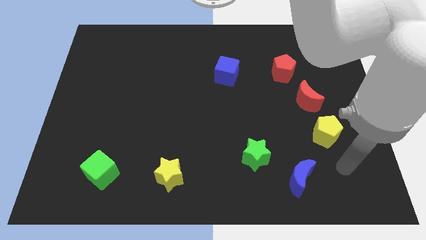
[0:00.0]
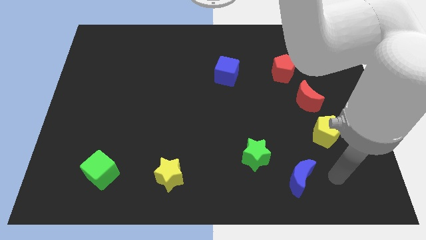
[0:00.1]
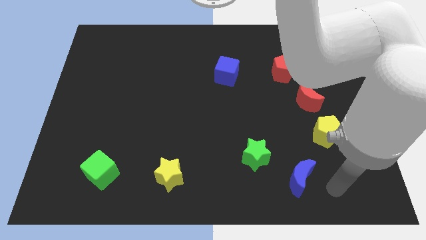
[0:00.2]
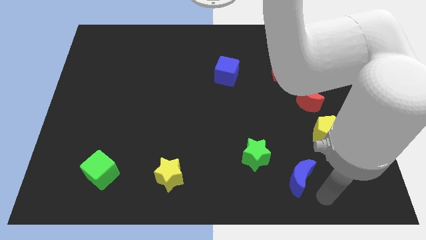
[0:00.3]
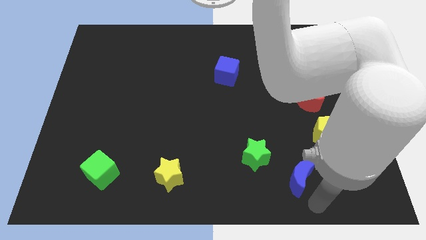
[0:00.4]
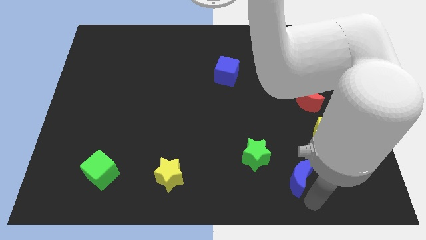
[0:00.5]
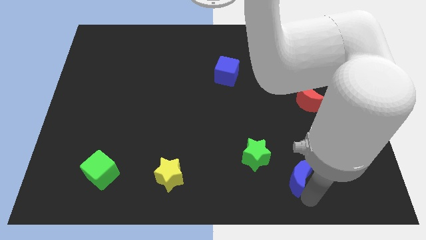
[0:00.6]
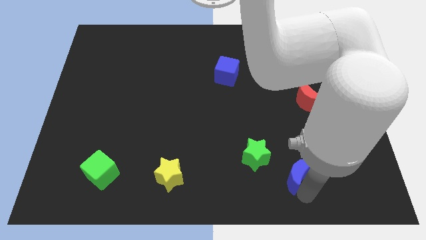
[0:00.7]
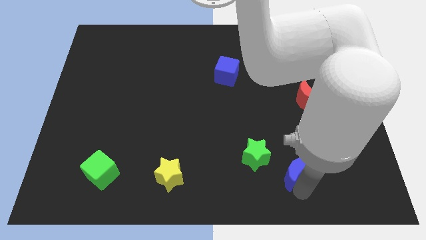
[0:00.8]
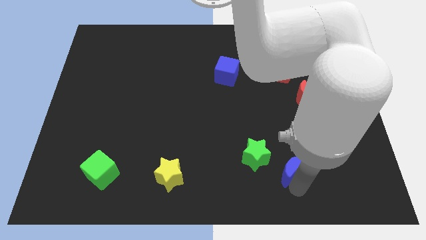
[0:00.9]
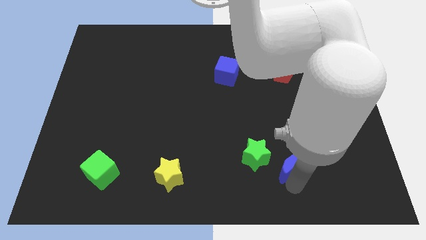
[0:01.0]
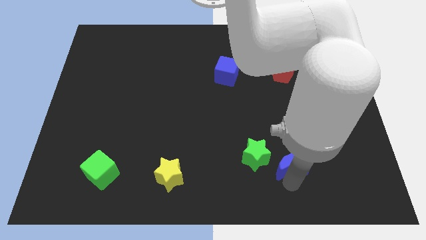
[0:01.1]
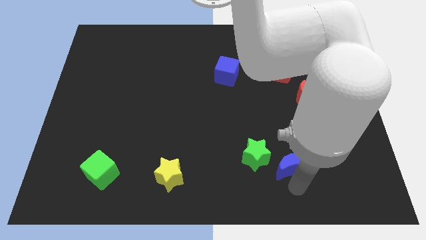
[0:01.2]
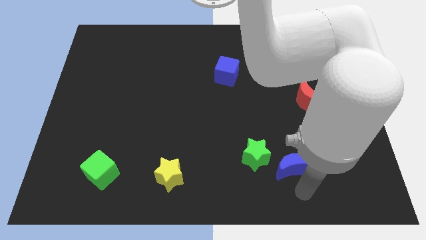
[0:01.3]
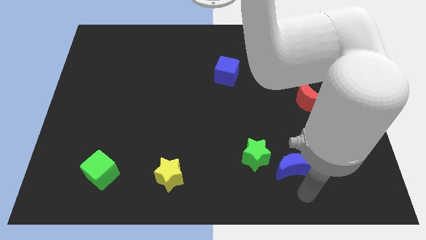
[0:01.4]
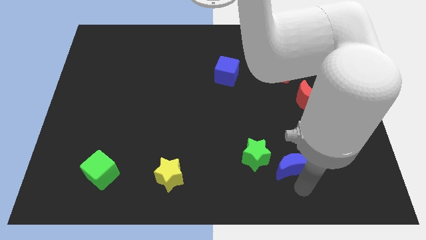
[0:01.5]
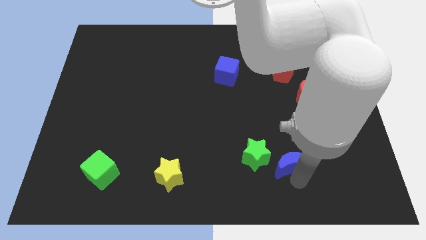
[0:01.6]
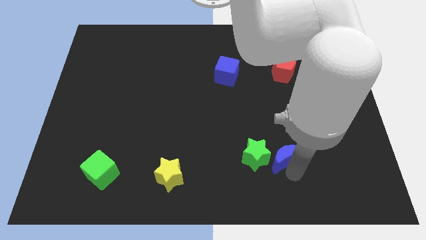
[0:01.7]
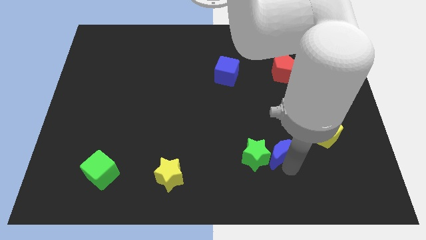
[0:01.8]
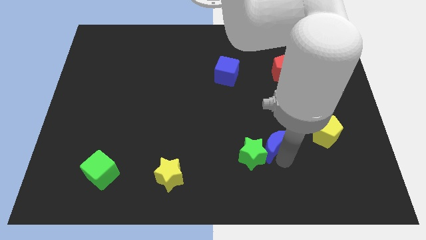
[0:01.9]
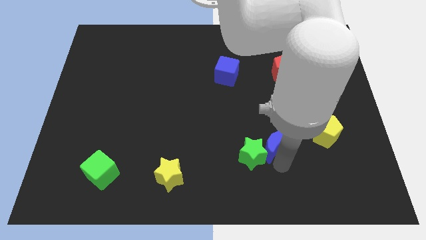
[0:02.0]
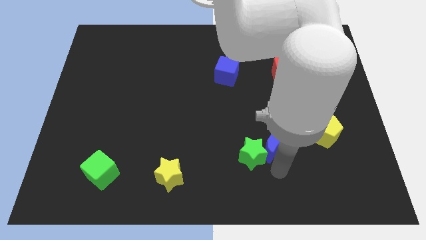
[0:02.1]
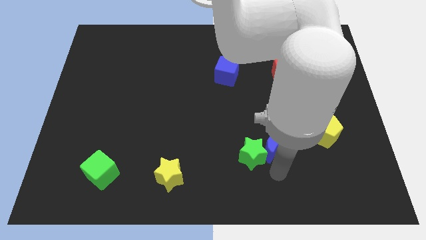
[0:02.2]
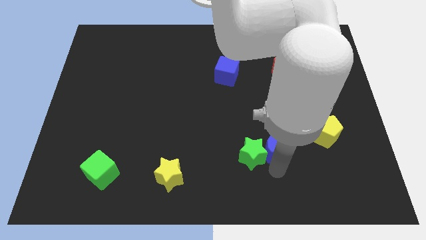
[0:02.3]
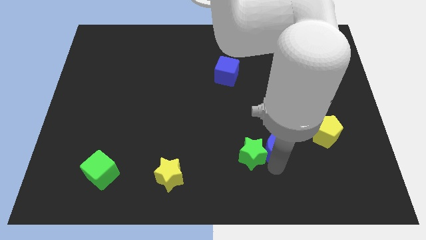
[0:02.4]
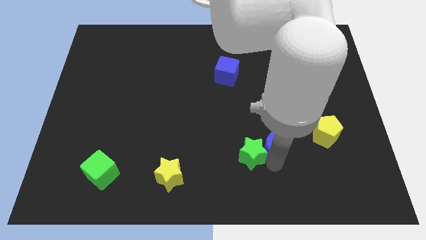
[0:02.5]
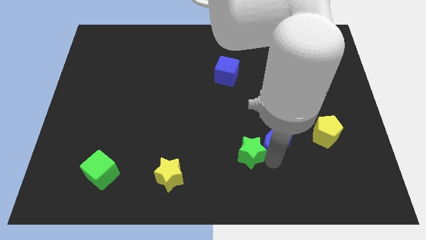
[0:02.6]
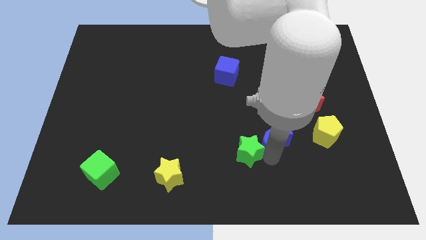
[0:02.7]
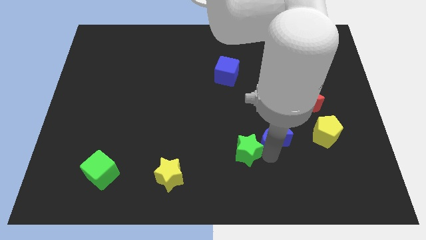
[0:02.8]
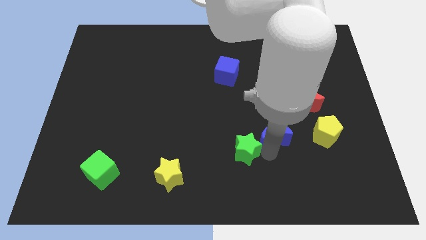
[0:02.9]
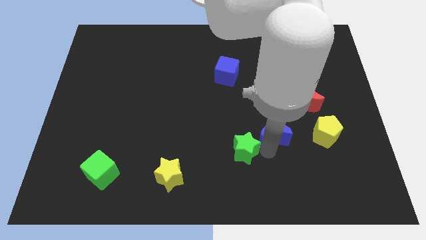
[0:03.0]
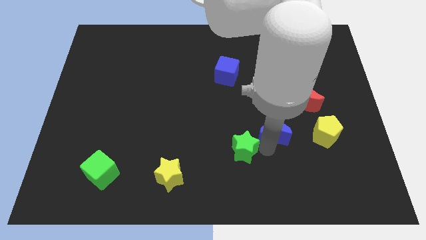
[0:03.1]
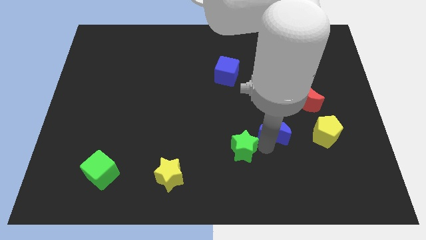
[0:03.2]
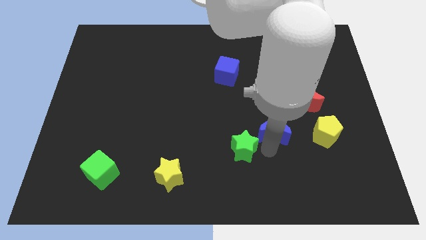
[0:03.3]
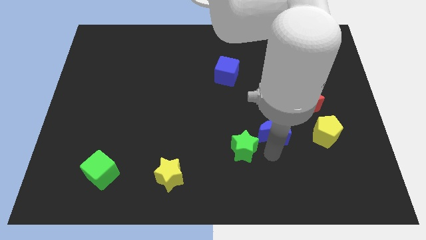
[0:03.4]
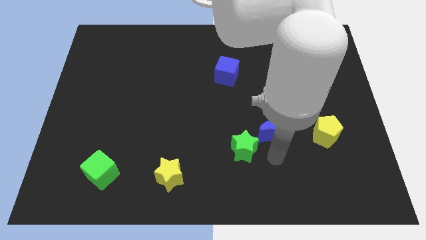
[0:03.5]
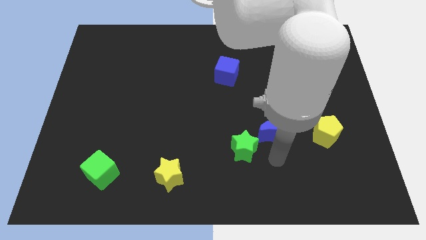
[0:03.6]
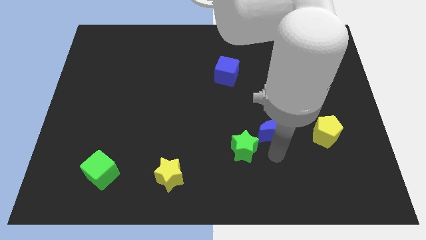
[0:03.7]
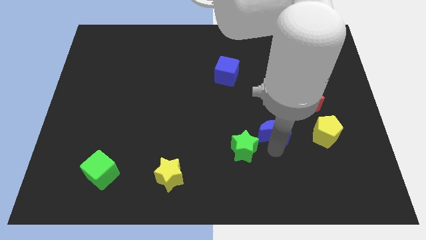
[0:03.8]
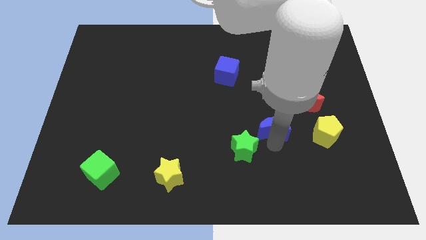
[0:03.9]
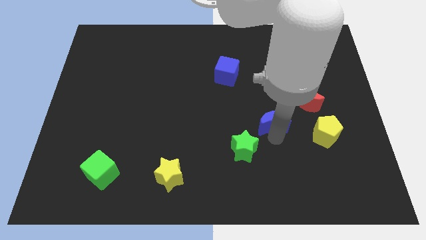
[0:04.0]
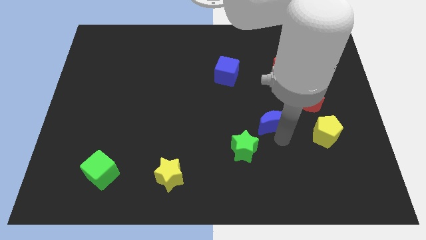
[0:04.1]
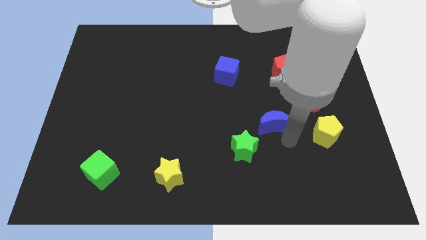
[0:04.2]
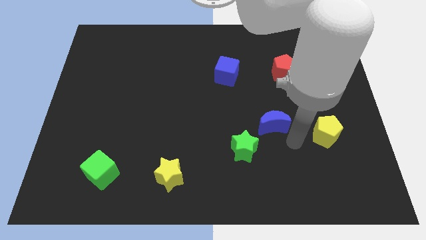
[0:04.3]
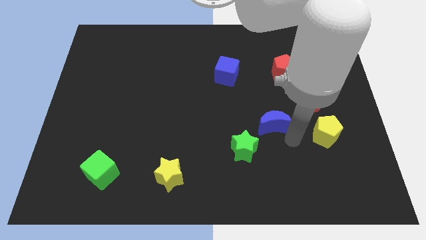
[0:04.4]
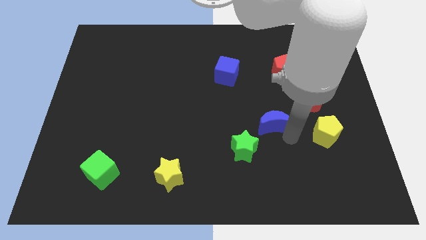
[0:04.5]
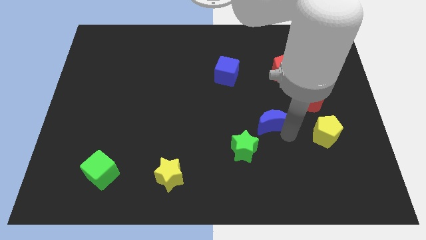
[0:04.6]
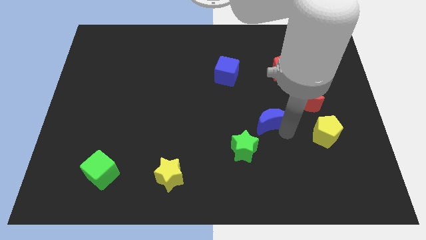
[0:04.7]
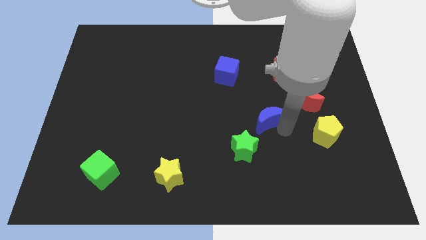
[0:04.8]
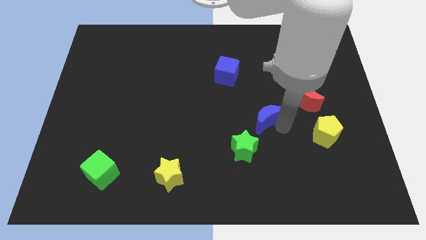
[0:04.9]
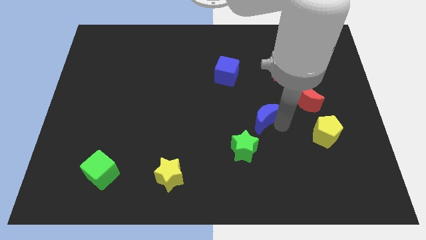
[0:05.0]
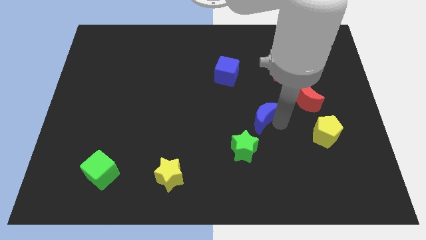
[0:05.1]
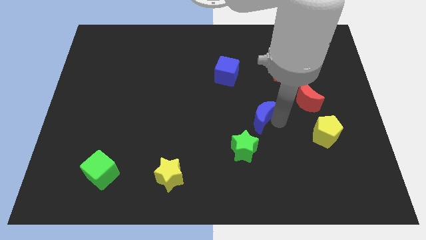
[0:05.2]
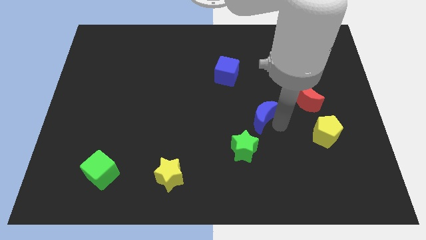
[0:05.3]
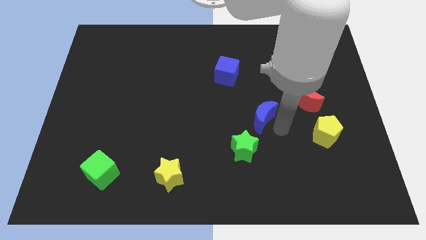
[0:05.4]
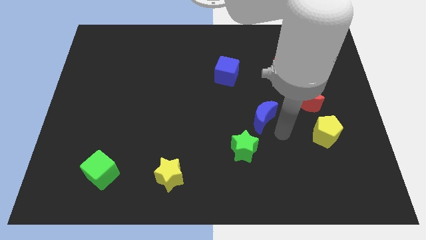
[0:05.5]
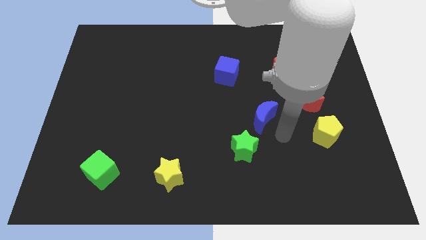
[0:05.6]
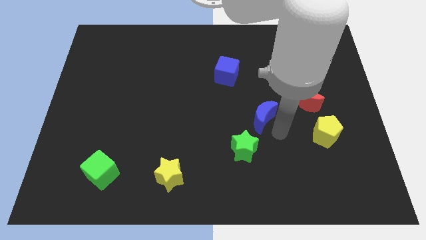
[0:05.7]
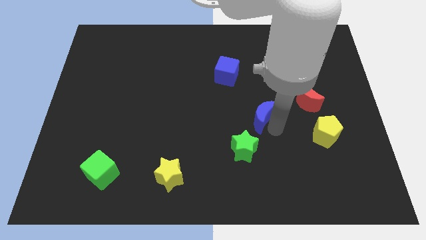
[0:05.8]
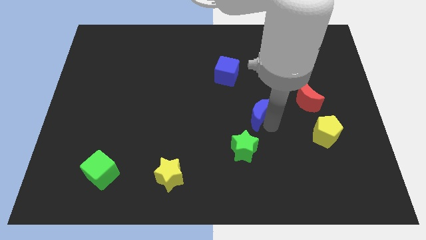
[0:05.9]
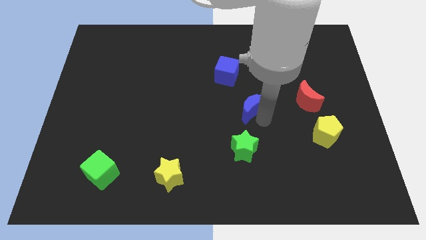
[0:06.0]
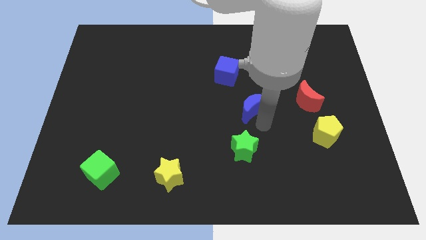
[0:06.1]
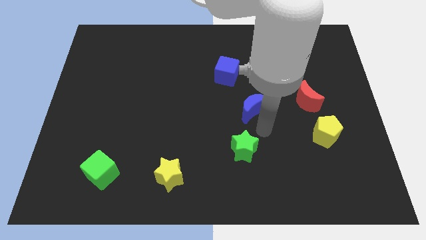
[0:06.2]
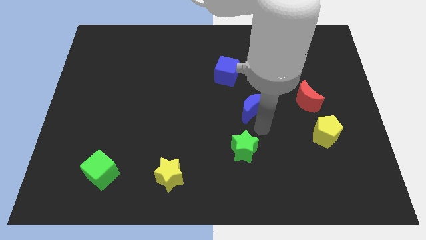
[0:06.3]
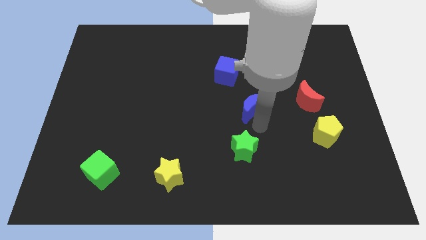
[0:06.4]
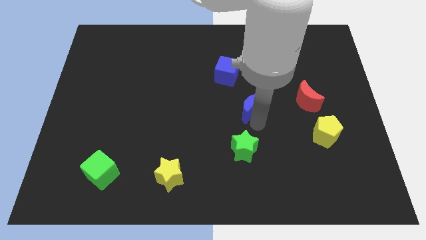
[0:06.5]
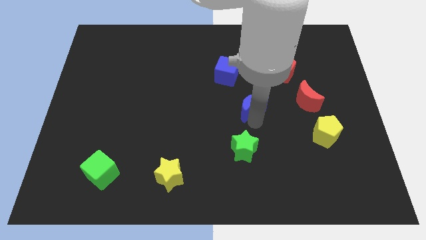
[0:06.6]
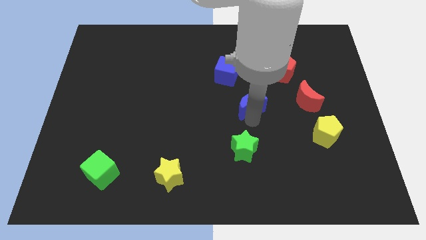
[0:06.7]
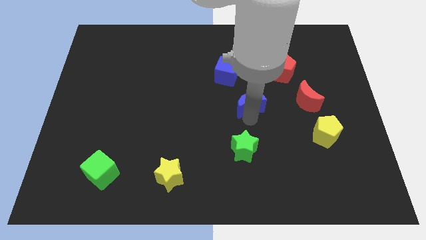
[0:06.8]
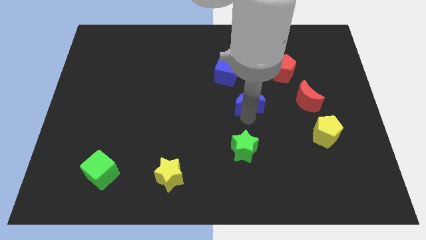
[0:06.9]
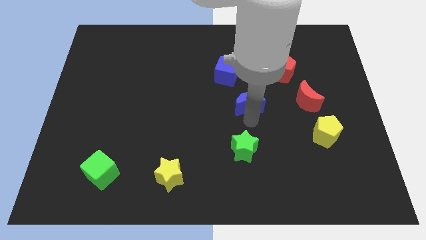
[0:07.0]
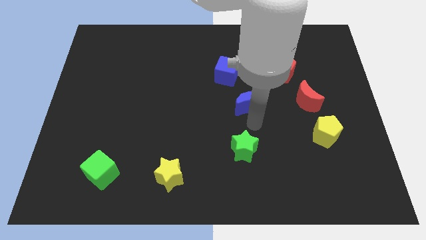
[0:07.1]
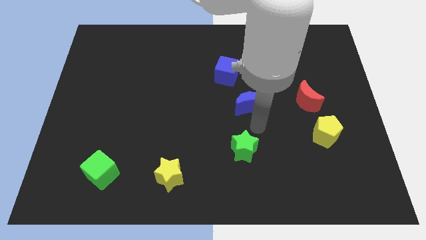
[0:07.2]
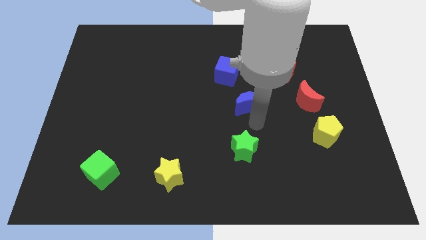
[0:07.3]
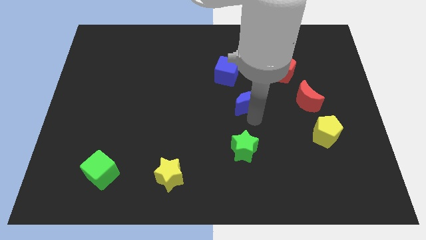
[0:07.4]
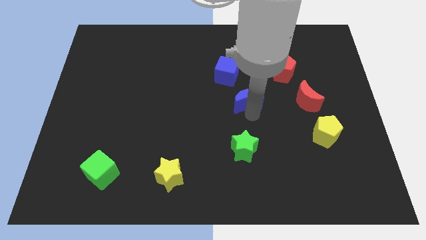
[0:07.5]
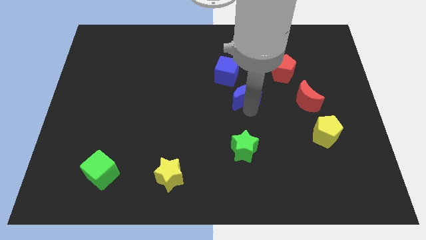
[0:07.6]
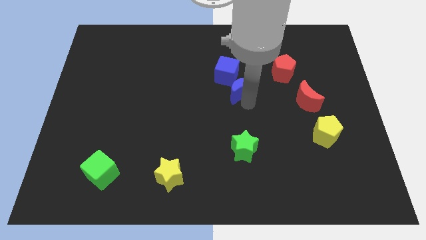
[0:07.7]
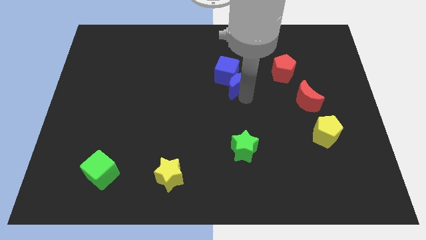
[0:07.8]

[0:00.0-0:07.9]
push the blue moon towards the blue cube
